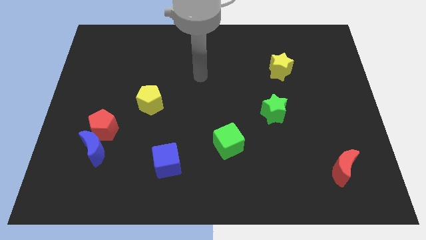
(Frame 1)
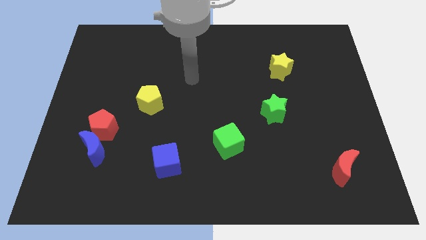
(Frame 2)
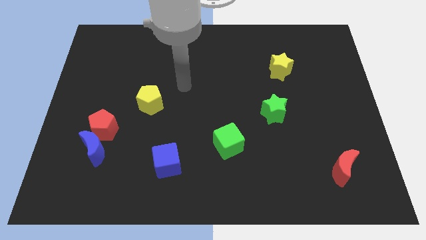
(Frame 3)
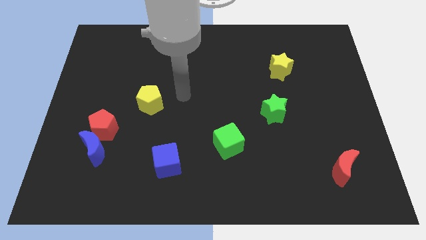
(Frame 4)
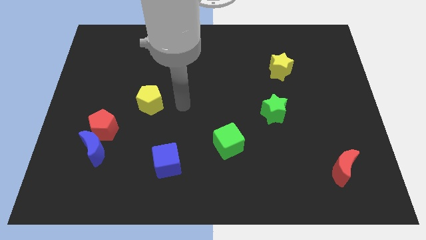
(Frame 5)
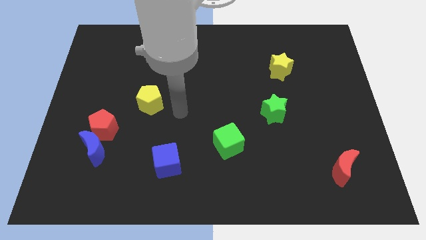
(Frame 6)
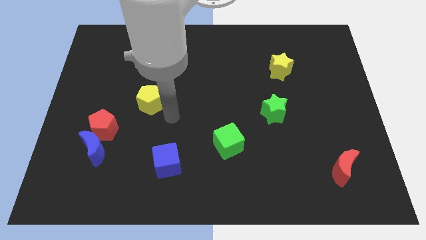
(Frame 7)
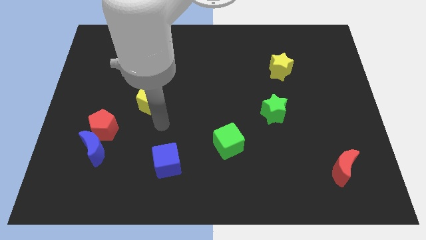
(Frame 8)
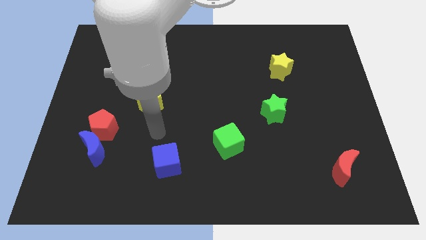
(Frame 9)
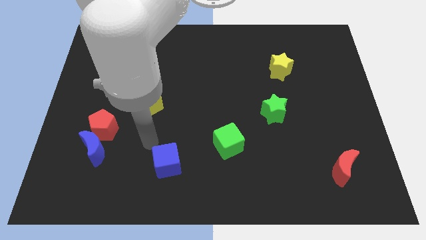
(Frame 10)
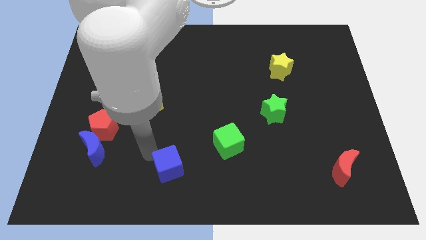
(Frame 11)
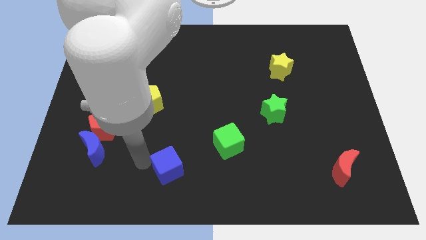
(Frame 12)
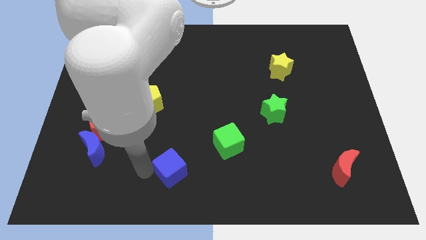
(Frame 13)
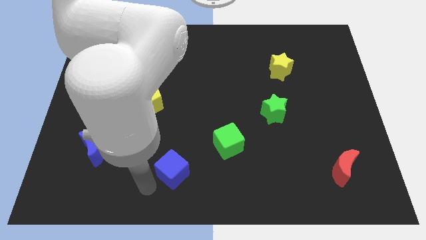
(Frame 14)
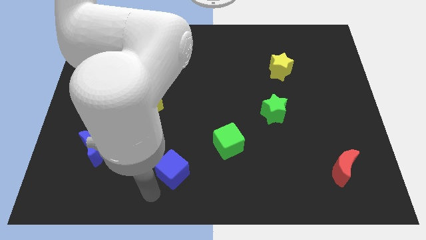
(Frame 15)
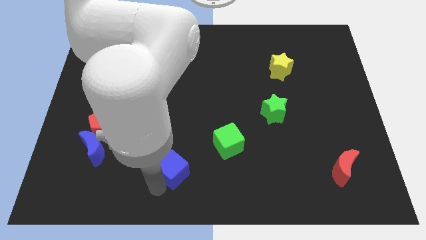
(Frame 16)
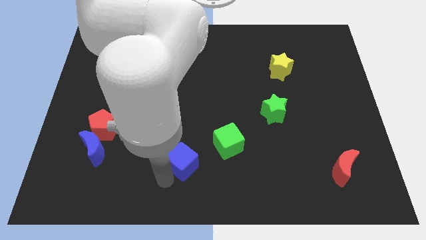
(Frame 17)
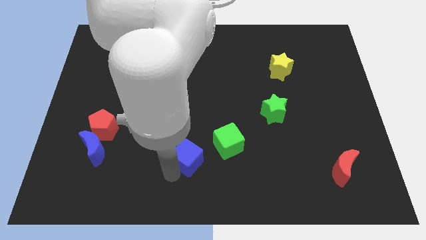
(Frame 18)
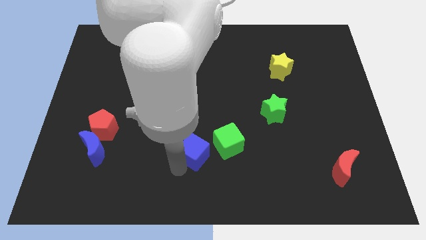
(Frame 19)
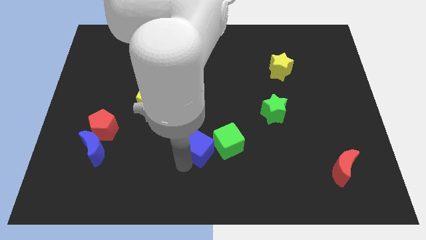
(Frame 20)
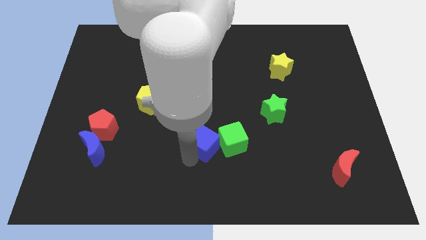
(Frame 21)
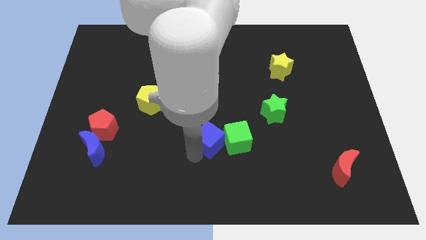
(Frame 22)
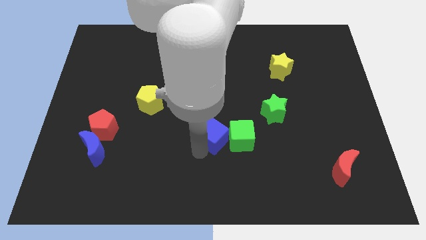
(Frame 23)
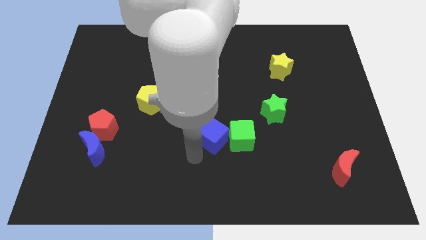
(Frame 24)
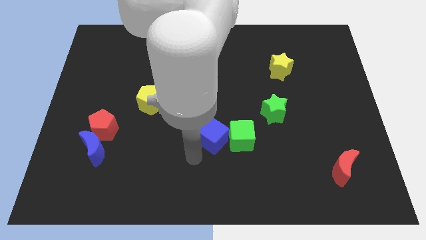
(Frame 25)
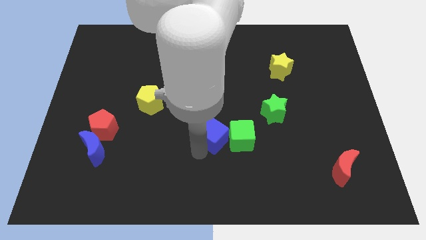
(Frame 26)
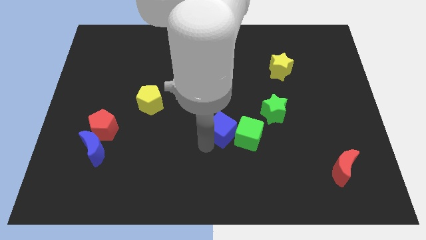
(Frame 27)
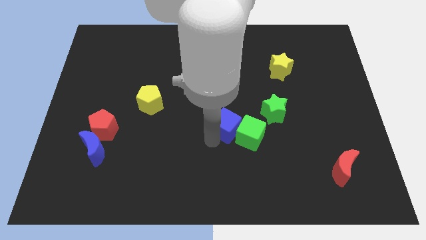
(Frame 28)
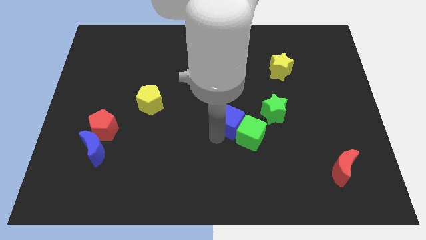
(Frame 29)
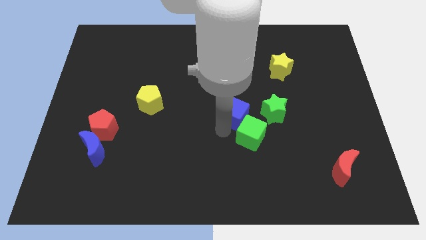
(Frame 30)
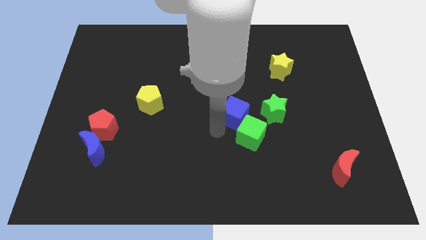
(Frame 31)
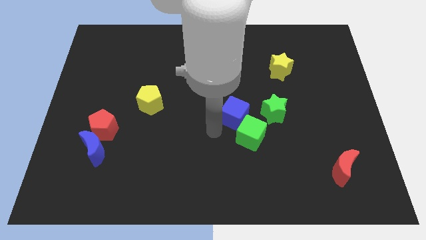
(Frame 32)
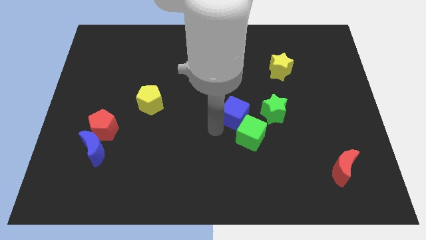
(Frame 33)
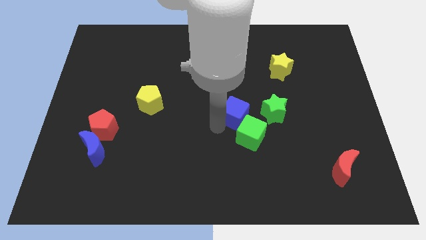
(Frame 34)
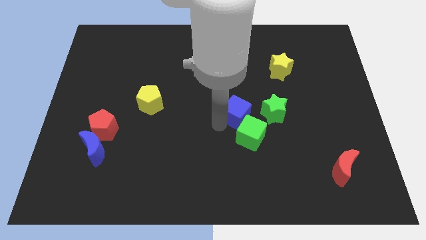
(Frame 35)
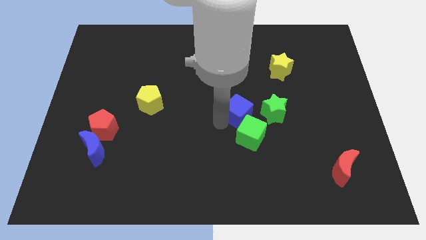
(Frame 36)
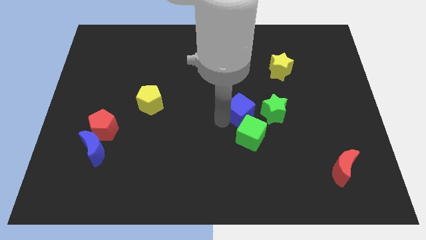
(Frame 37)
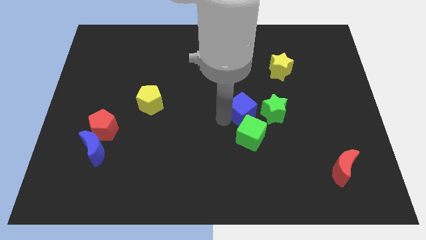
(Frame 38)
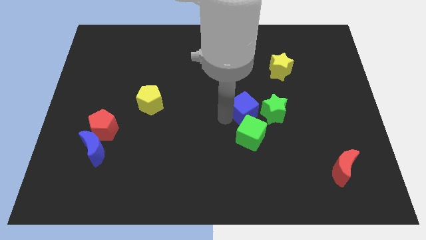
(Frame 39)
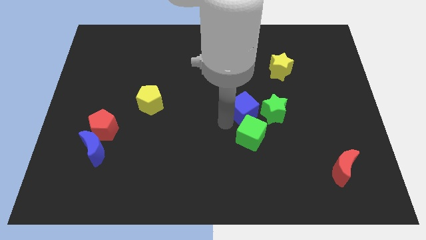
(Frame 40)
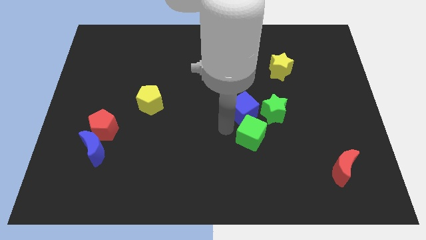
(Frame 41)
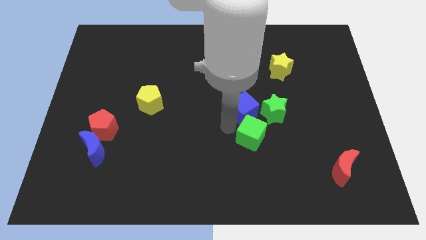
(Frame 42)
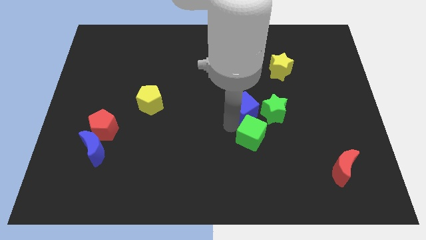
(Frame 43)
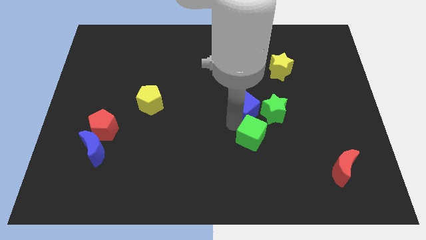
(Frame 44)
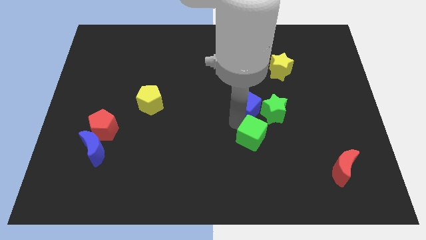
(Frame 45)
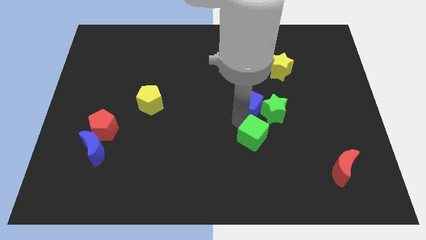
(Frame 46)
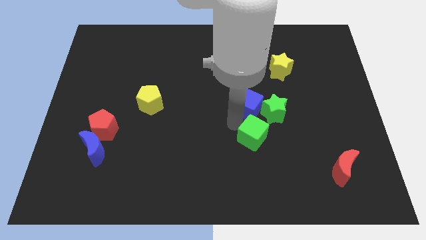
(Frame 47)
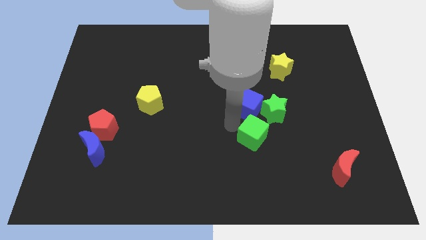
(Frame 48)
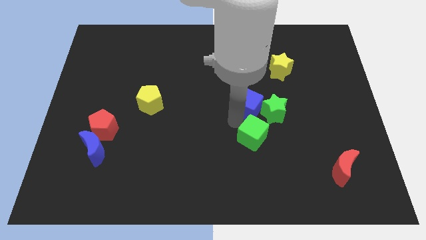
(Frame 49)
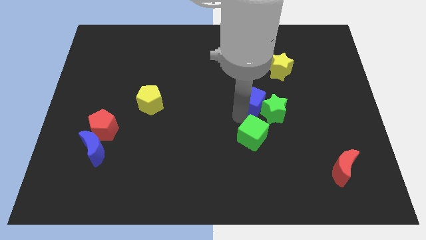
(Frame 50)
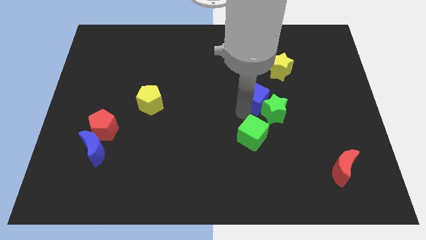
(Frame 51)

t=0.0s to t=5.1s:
put the blue cube to the top of the green star

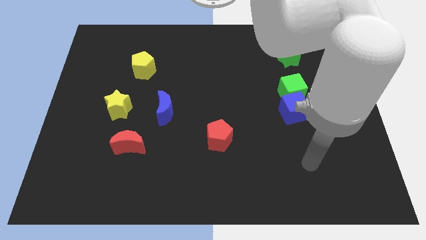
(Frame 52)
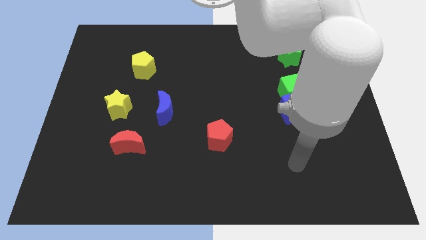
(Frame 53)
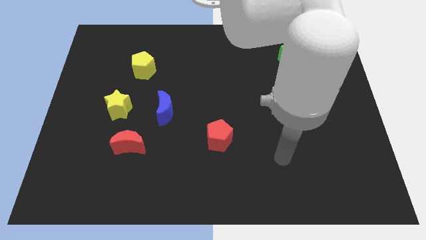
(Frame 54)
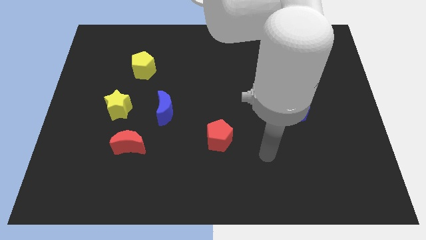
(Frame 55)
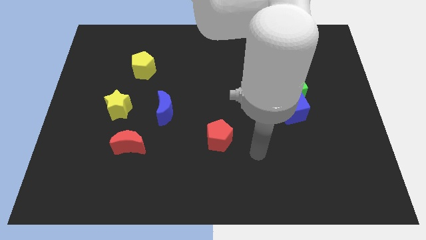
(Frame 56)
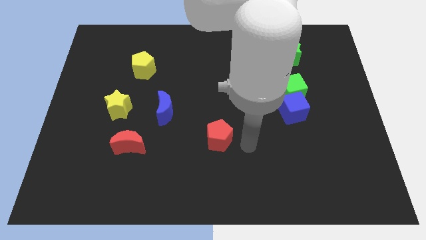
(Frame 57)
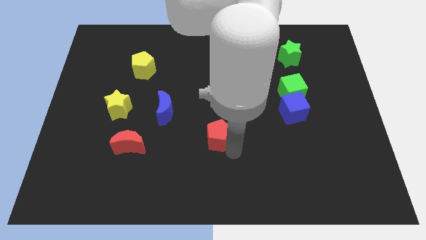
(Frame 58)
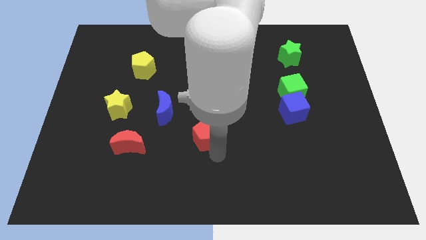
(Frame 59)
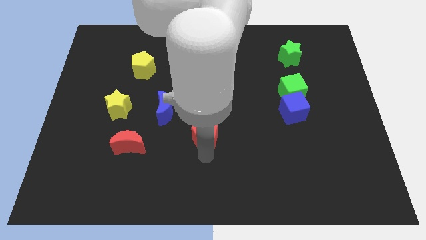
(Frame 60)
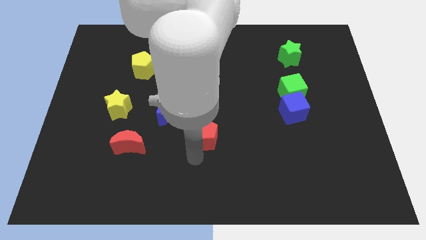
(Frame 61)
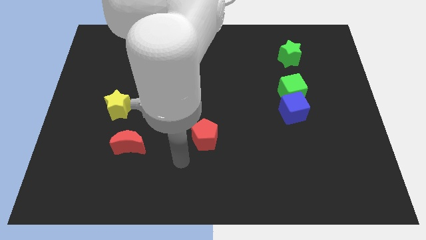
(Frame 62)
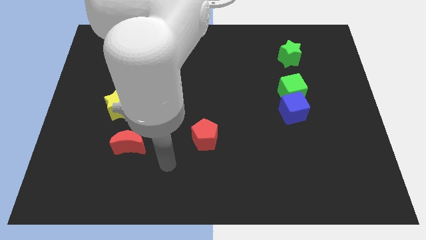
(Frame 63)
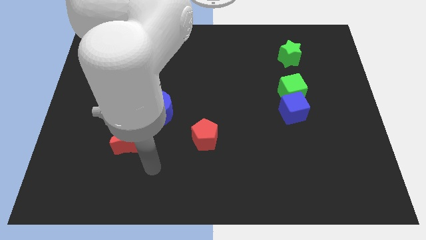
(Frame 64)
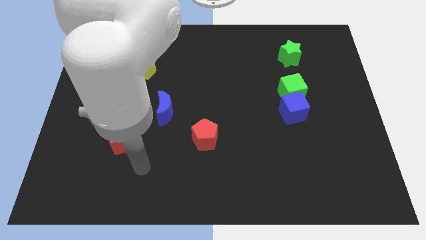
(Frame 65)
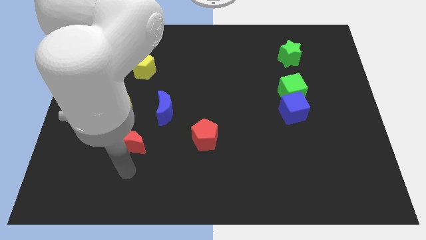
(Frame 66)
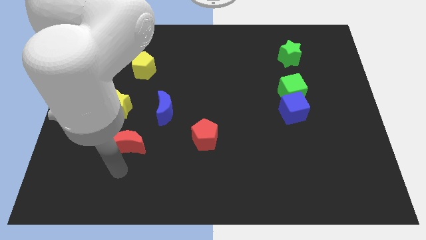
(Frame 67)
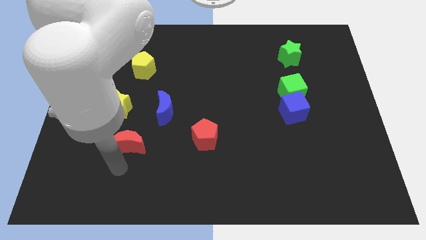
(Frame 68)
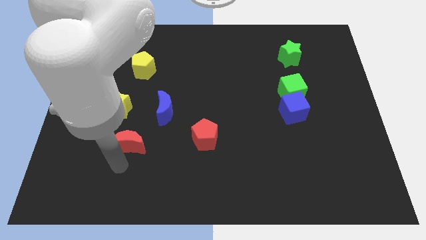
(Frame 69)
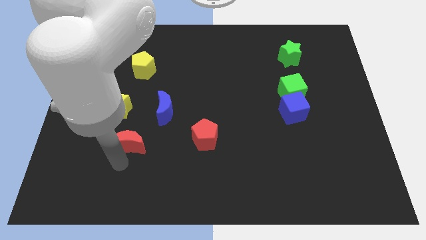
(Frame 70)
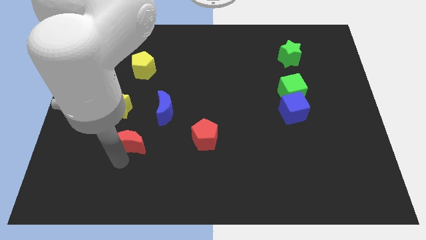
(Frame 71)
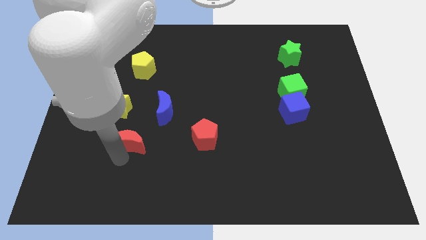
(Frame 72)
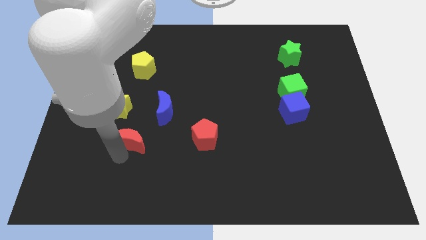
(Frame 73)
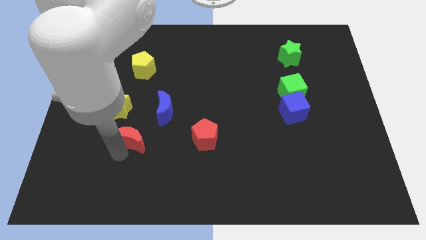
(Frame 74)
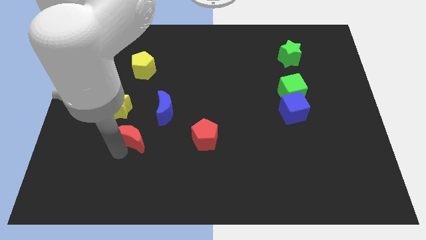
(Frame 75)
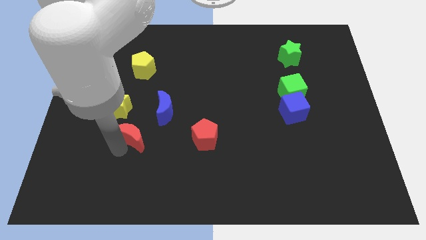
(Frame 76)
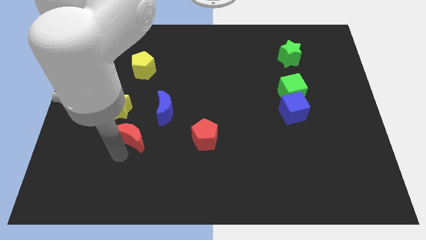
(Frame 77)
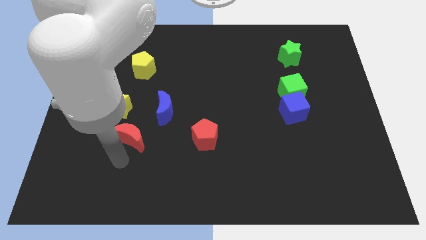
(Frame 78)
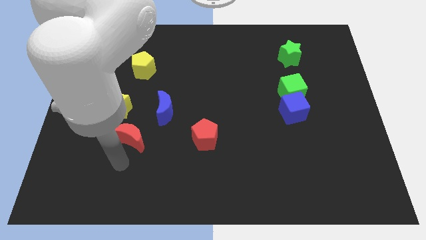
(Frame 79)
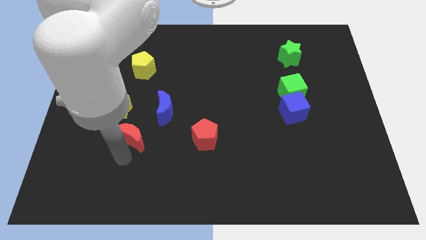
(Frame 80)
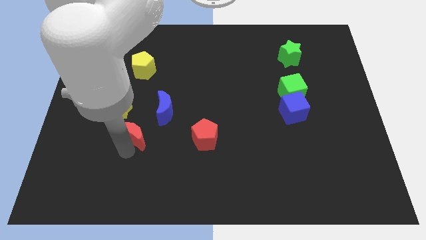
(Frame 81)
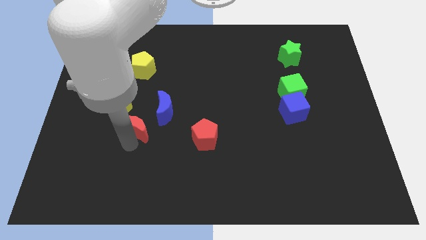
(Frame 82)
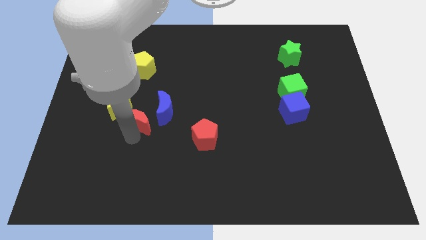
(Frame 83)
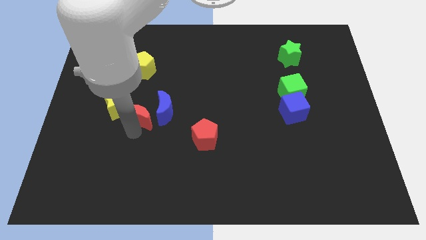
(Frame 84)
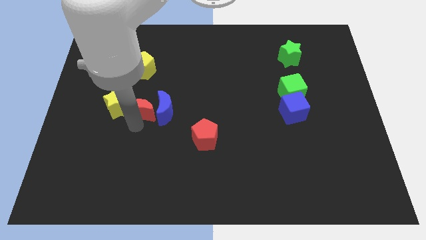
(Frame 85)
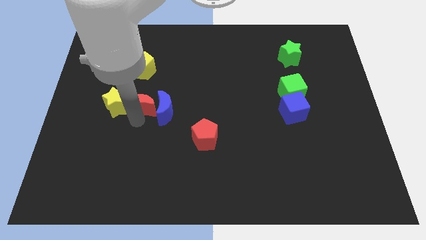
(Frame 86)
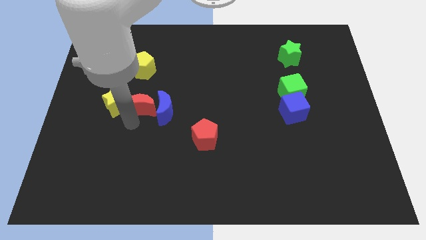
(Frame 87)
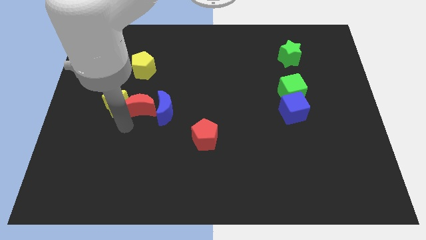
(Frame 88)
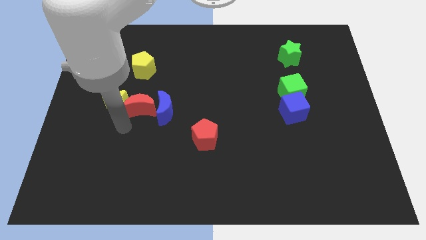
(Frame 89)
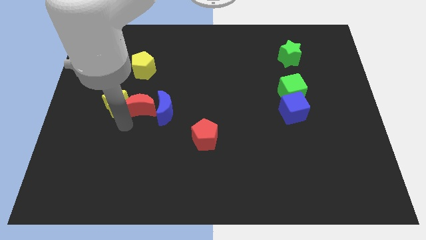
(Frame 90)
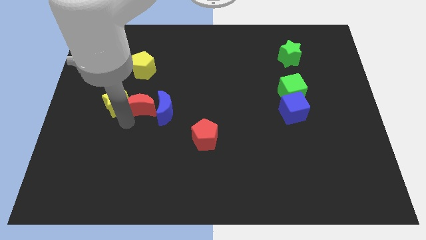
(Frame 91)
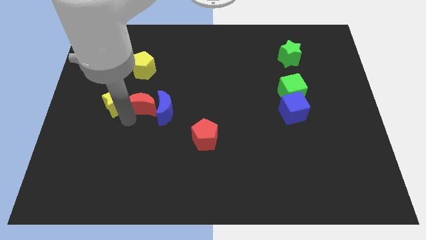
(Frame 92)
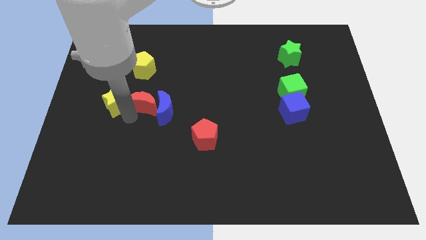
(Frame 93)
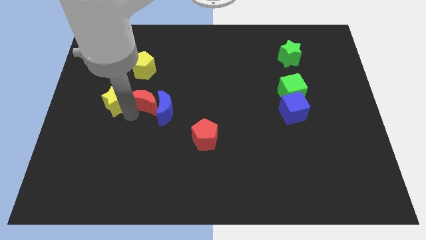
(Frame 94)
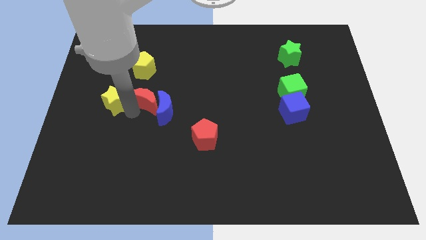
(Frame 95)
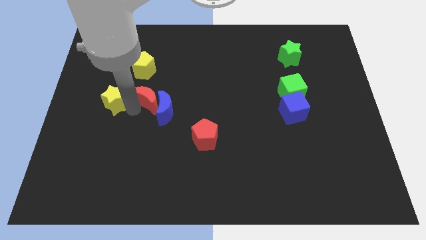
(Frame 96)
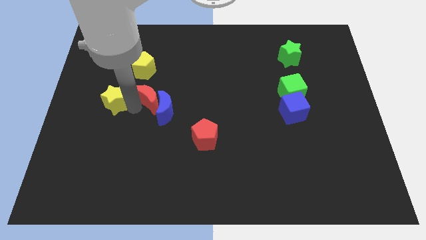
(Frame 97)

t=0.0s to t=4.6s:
push the red moon to the top of the blue moon
